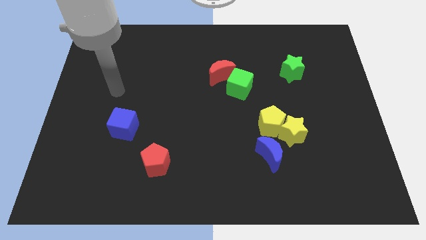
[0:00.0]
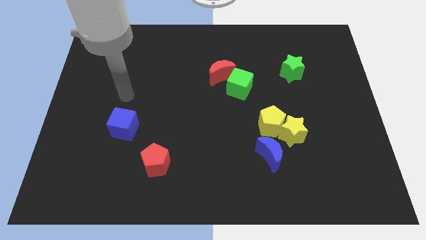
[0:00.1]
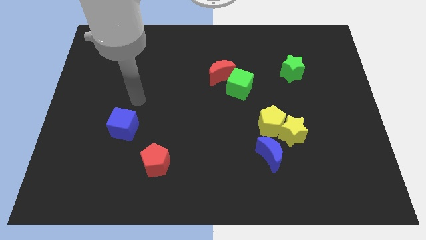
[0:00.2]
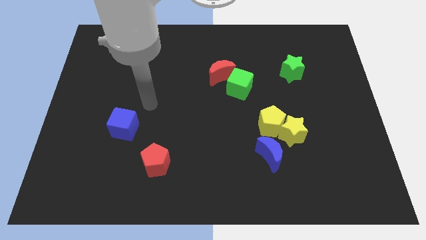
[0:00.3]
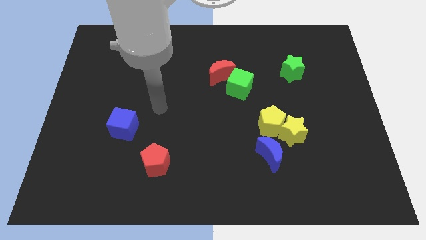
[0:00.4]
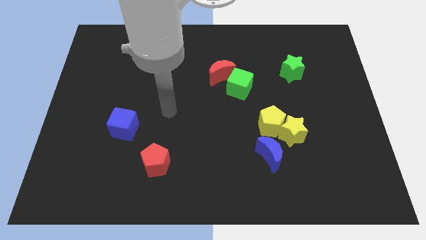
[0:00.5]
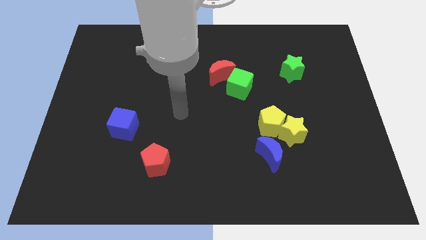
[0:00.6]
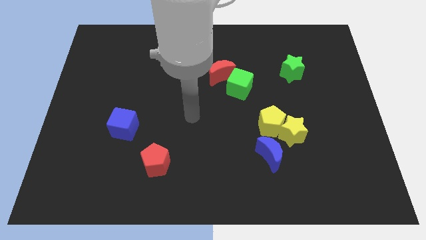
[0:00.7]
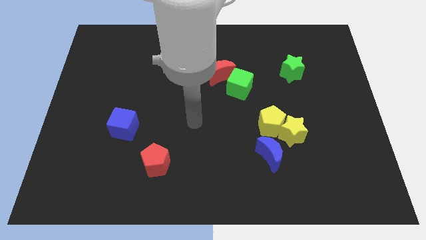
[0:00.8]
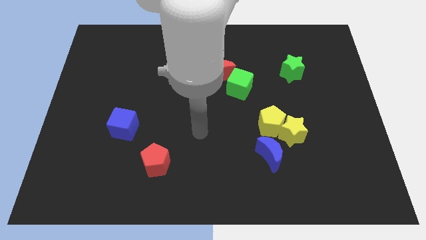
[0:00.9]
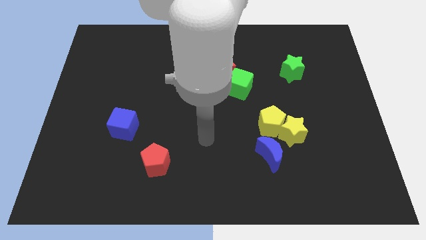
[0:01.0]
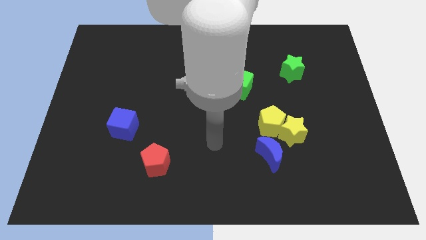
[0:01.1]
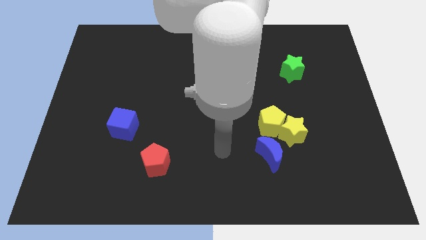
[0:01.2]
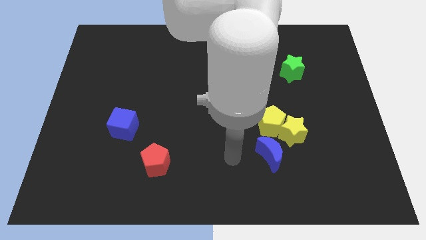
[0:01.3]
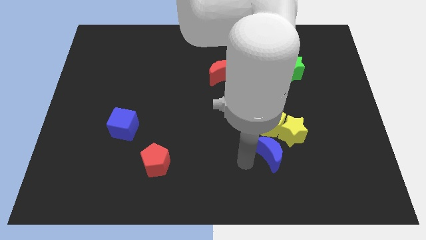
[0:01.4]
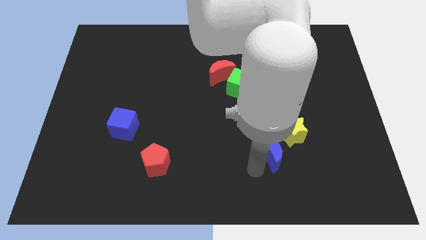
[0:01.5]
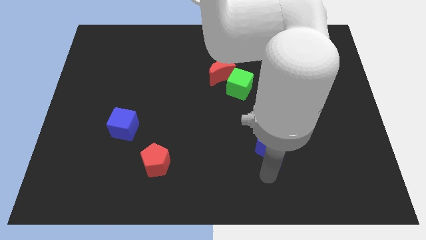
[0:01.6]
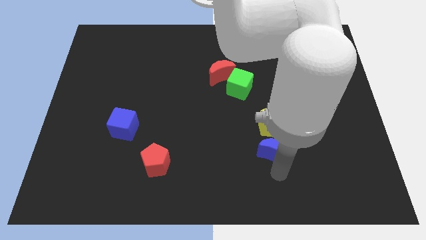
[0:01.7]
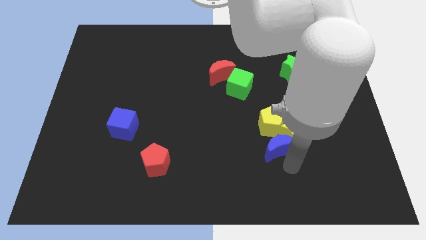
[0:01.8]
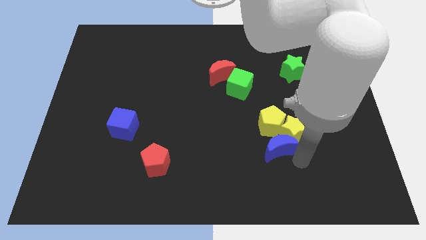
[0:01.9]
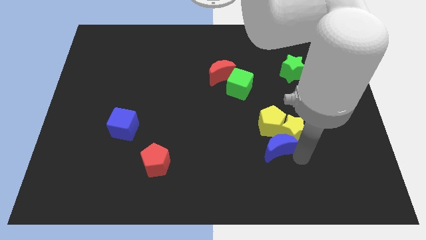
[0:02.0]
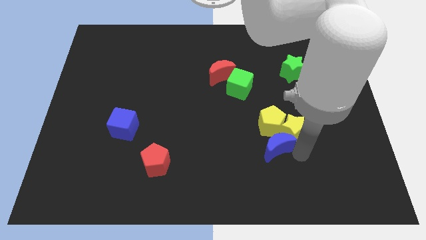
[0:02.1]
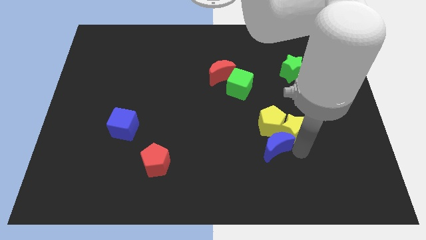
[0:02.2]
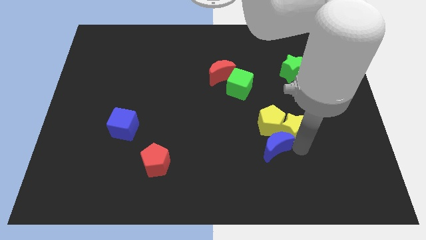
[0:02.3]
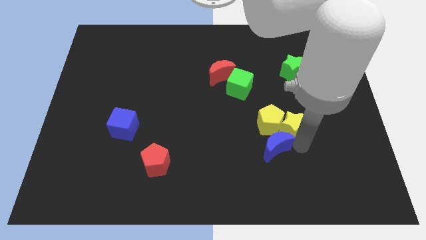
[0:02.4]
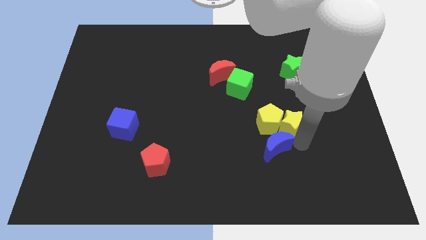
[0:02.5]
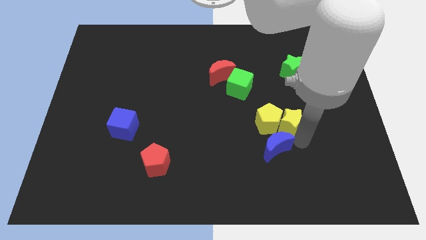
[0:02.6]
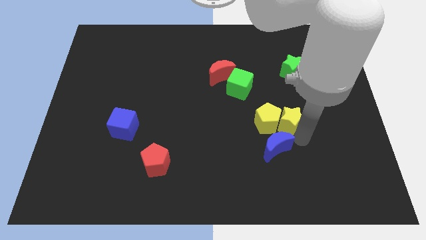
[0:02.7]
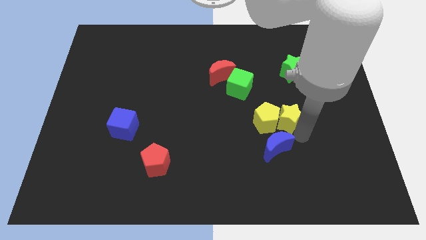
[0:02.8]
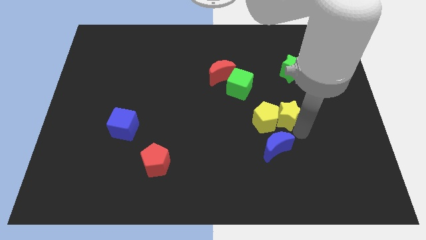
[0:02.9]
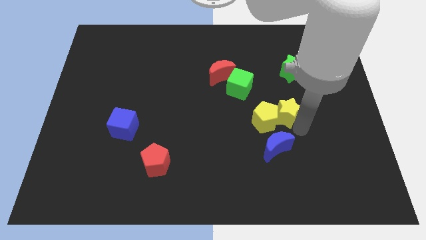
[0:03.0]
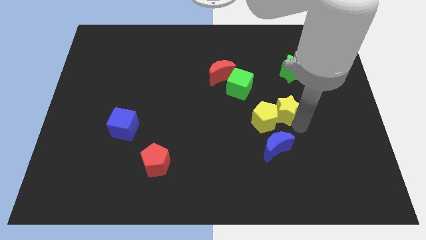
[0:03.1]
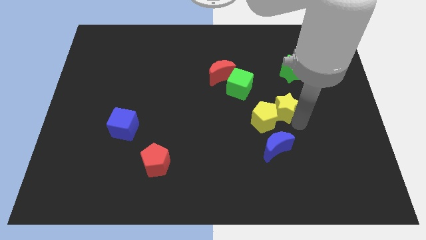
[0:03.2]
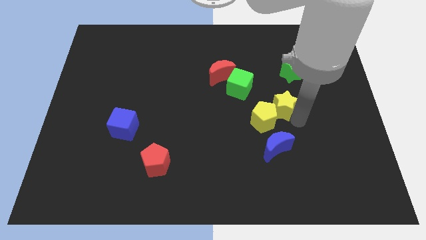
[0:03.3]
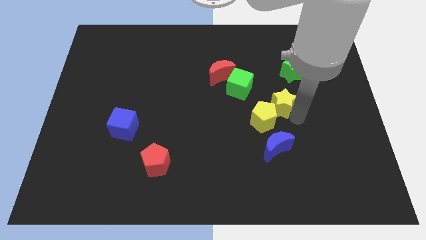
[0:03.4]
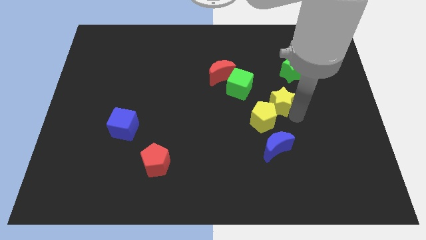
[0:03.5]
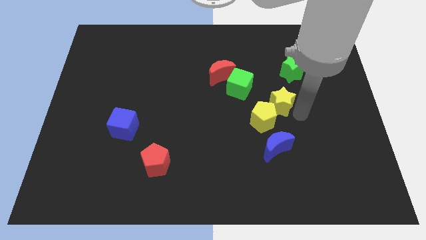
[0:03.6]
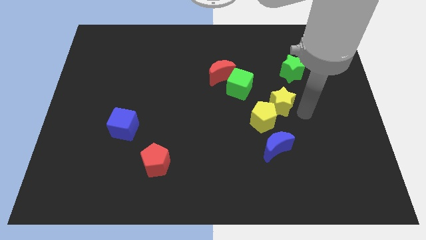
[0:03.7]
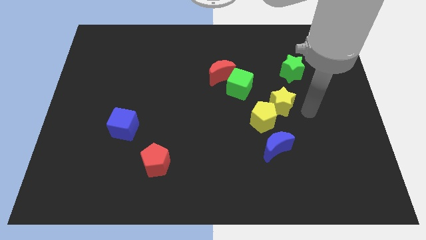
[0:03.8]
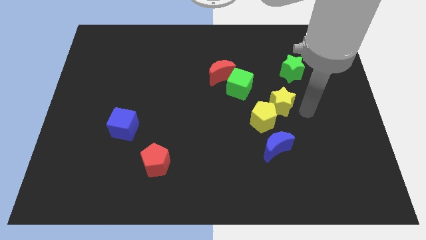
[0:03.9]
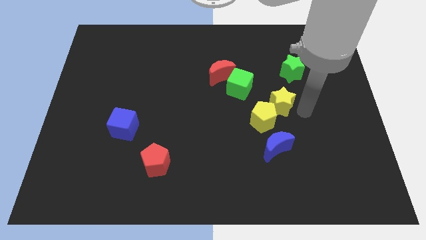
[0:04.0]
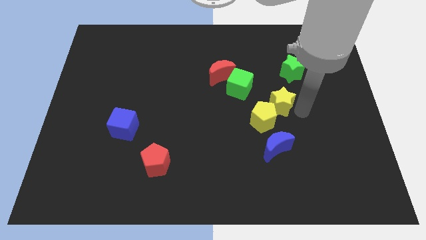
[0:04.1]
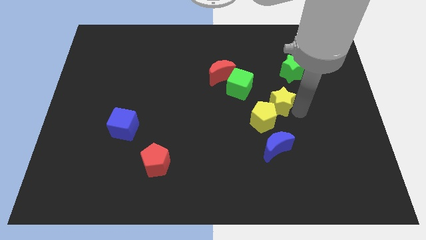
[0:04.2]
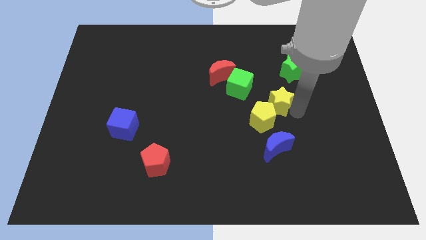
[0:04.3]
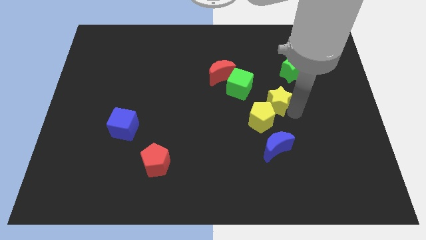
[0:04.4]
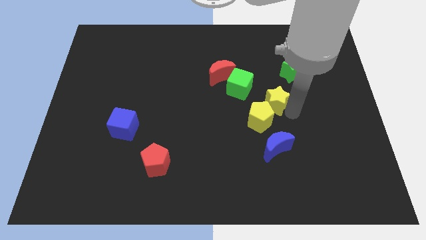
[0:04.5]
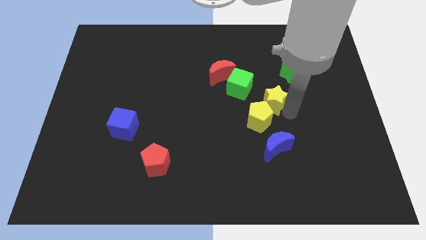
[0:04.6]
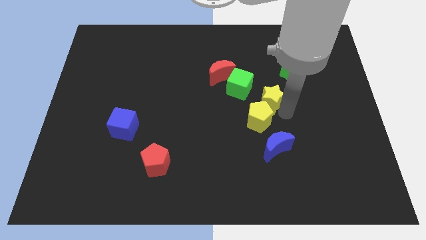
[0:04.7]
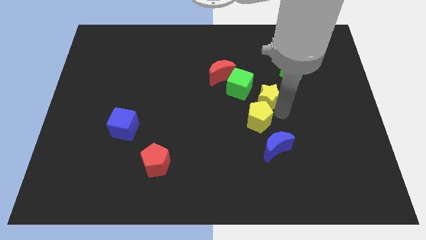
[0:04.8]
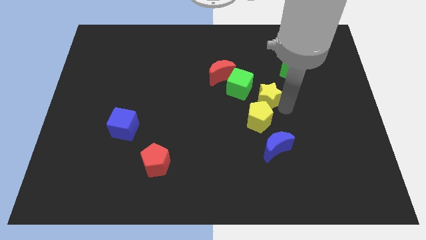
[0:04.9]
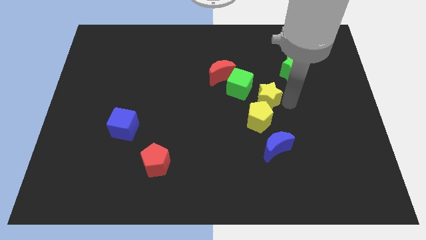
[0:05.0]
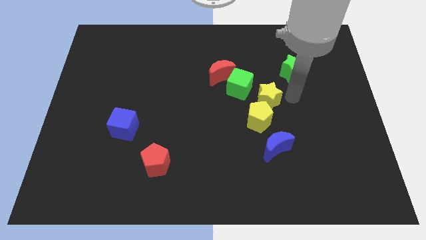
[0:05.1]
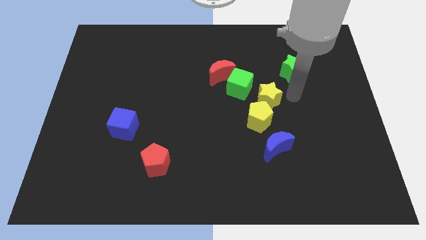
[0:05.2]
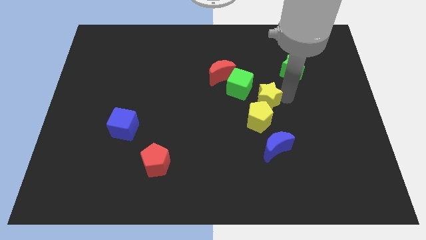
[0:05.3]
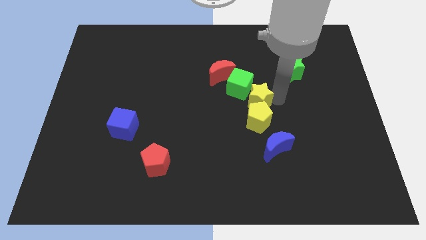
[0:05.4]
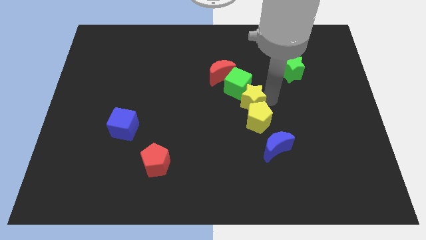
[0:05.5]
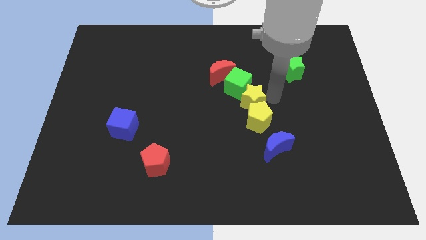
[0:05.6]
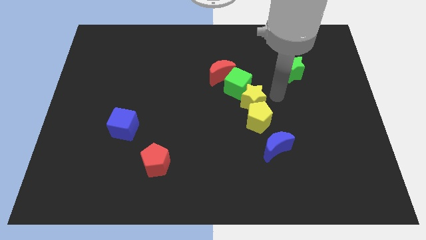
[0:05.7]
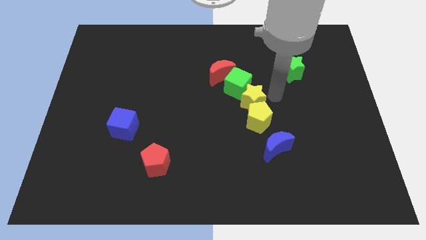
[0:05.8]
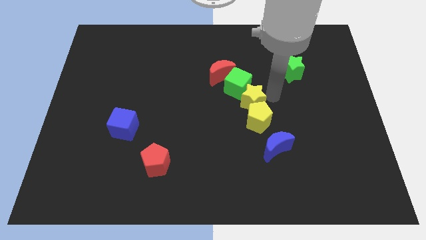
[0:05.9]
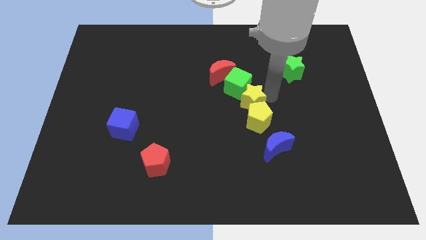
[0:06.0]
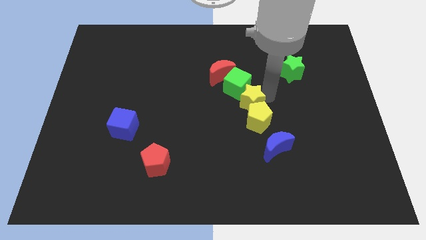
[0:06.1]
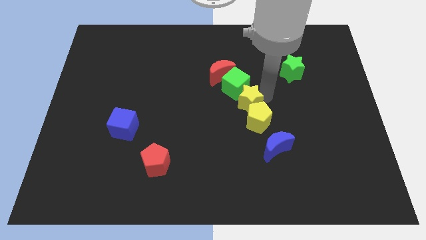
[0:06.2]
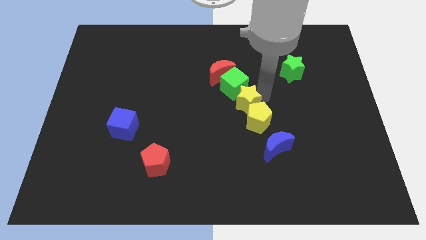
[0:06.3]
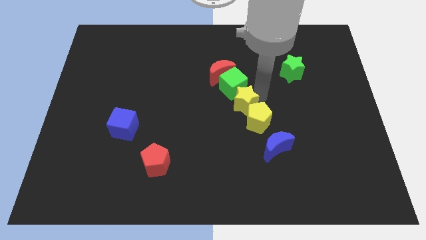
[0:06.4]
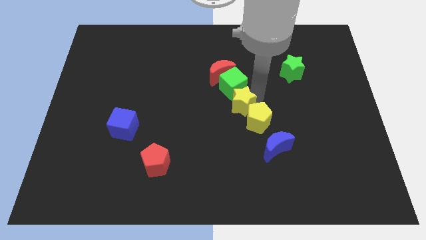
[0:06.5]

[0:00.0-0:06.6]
push the yellow star below the red moon

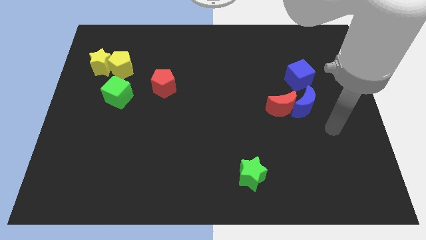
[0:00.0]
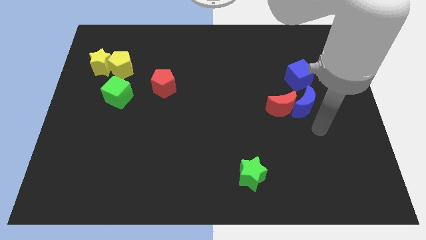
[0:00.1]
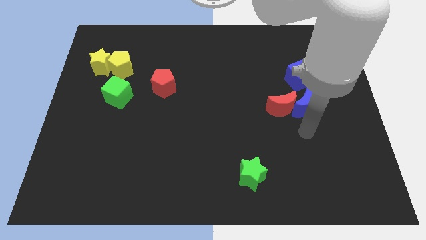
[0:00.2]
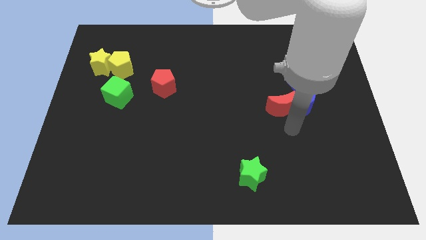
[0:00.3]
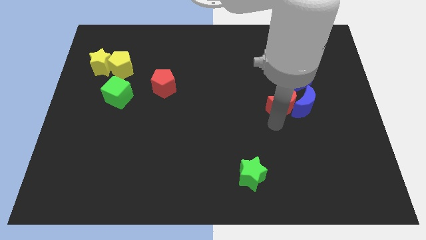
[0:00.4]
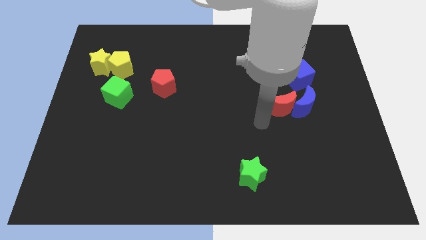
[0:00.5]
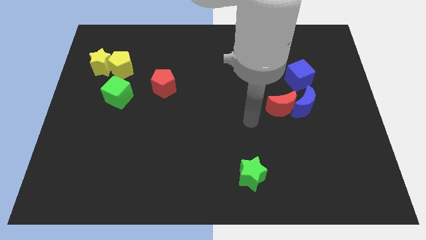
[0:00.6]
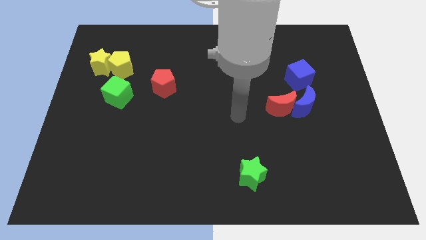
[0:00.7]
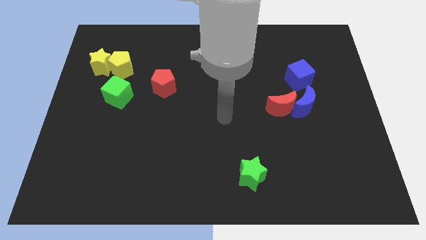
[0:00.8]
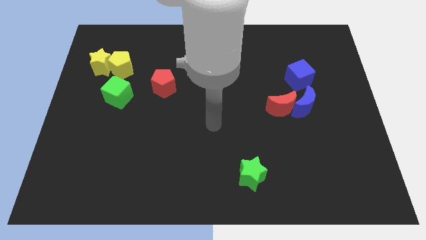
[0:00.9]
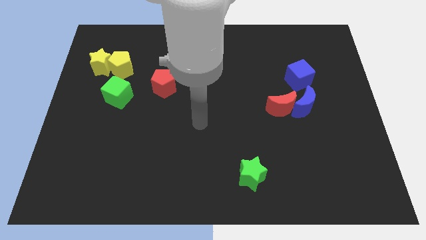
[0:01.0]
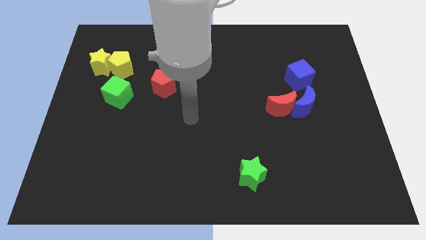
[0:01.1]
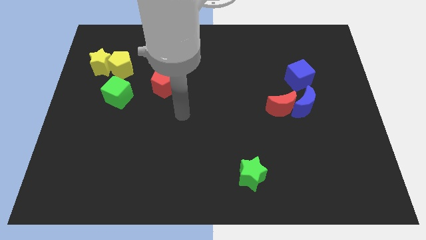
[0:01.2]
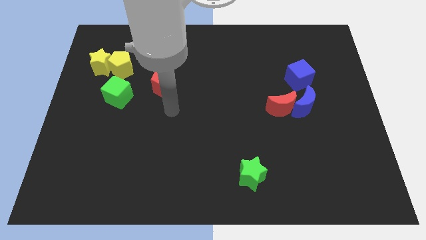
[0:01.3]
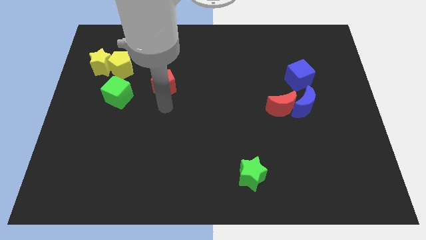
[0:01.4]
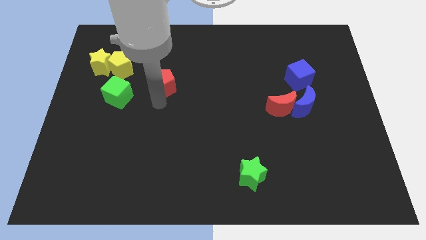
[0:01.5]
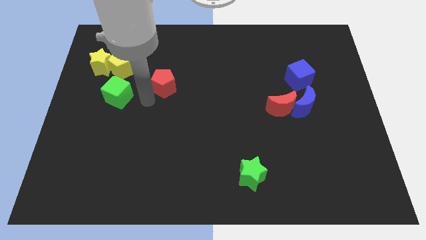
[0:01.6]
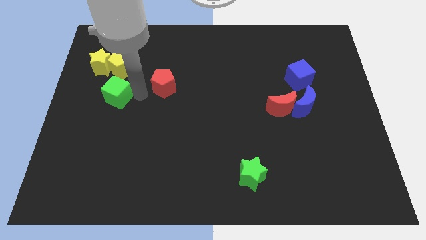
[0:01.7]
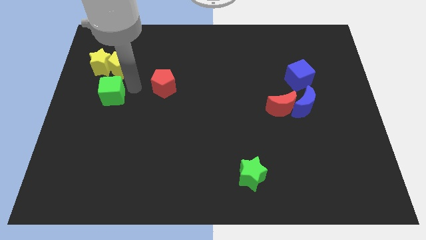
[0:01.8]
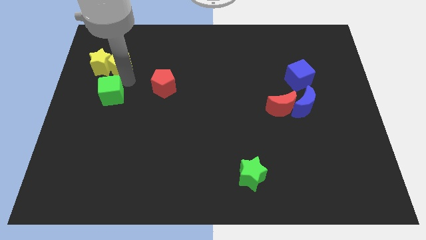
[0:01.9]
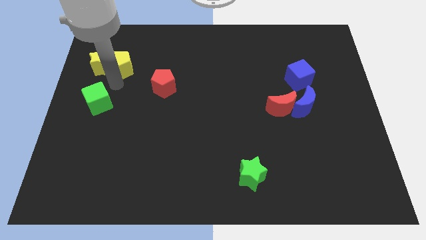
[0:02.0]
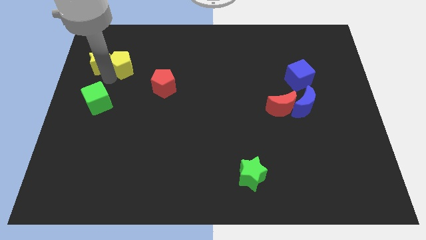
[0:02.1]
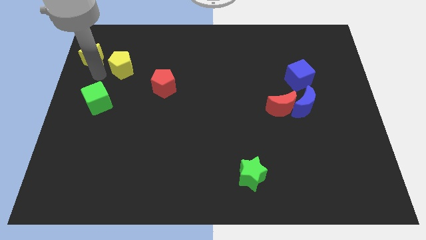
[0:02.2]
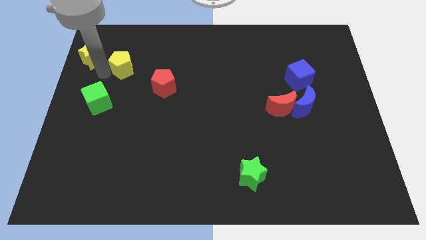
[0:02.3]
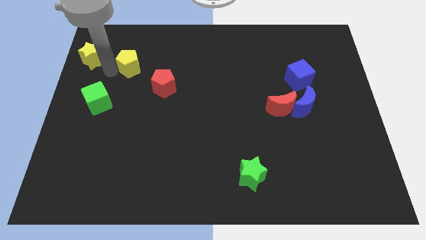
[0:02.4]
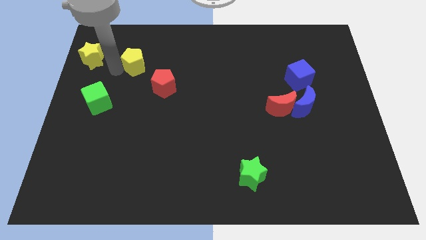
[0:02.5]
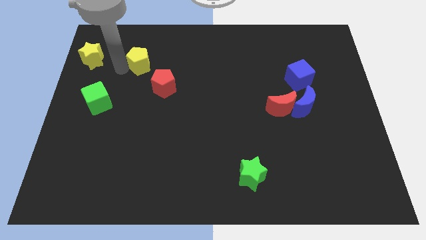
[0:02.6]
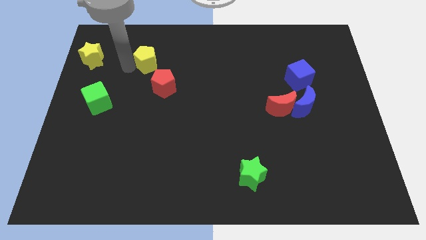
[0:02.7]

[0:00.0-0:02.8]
slide the yellow pentagon to the top of the red pentagon
